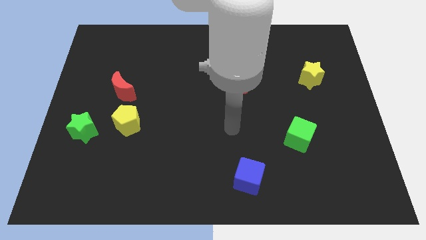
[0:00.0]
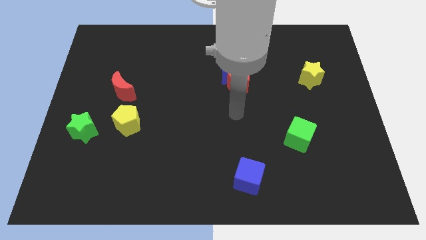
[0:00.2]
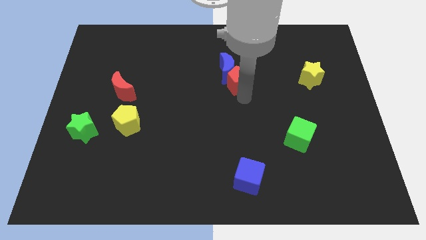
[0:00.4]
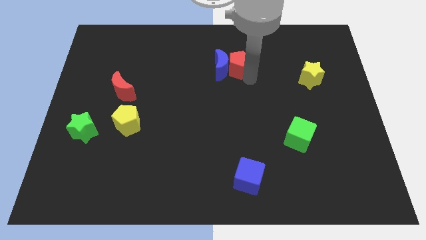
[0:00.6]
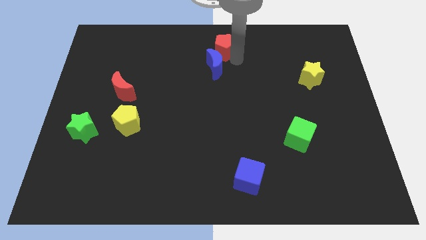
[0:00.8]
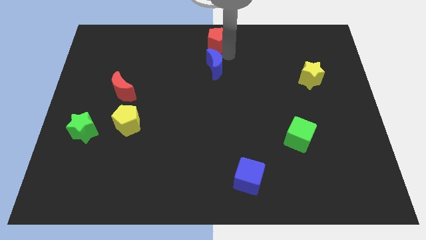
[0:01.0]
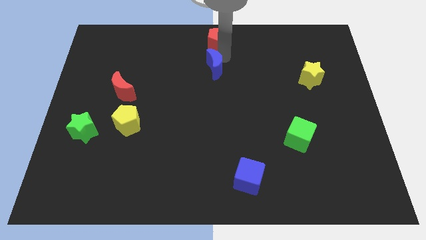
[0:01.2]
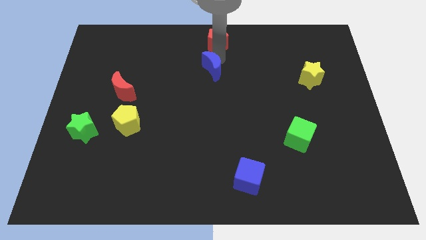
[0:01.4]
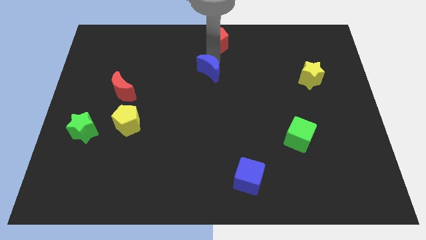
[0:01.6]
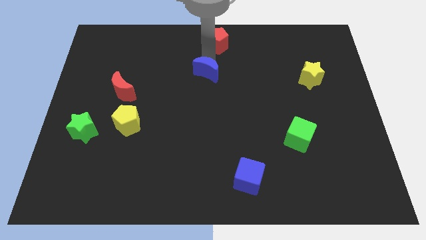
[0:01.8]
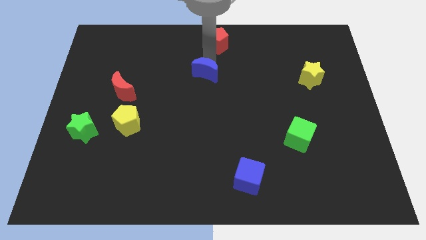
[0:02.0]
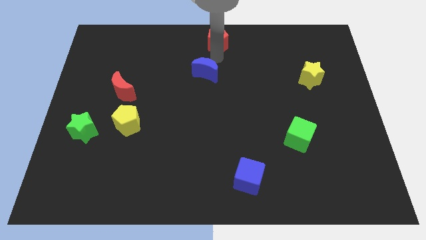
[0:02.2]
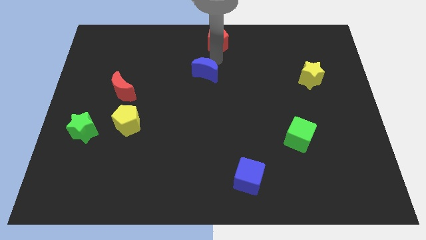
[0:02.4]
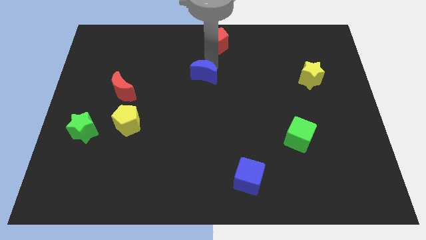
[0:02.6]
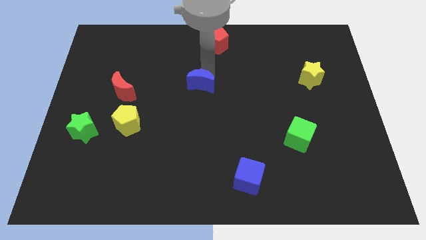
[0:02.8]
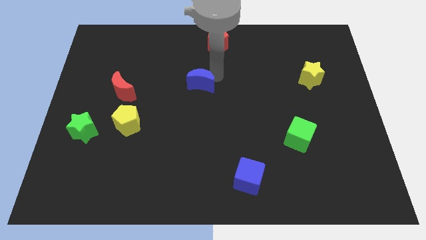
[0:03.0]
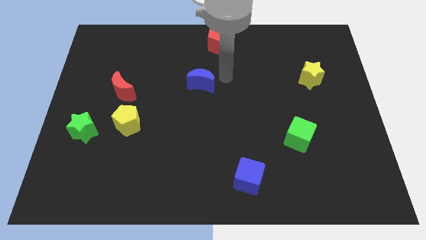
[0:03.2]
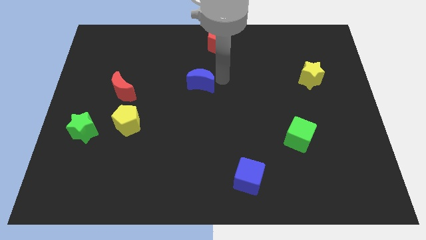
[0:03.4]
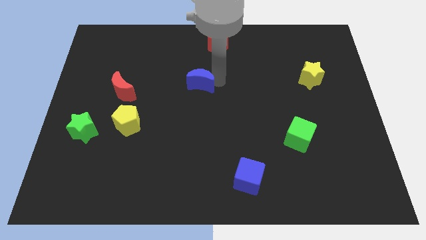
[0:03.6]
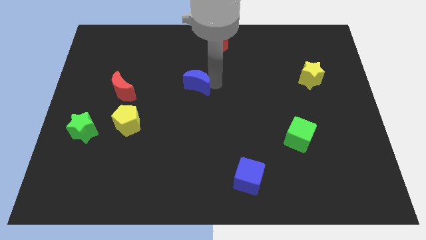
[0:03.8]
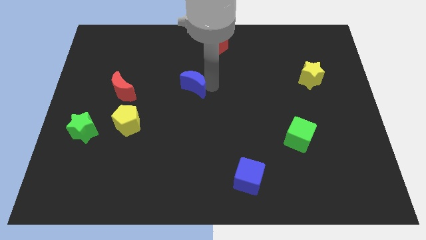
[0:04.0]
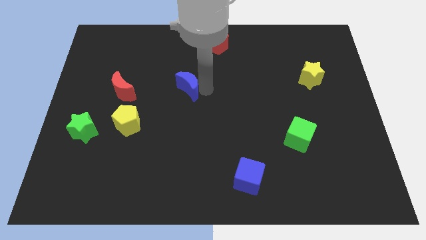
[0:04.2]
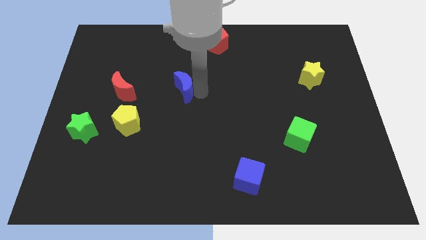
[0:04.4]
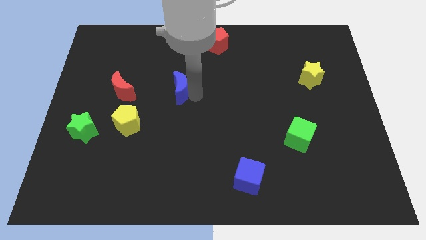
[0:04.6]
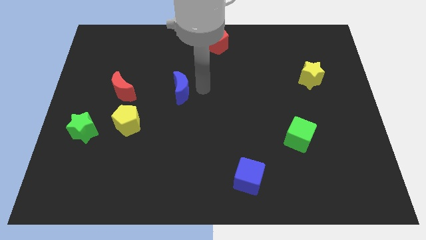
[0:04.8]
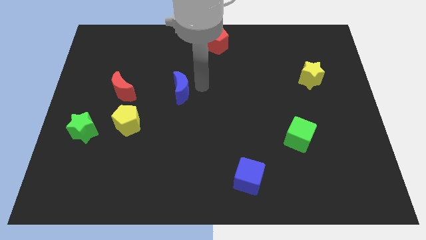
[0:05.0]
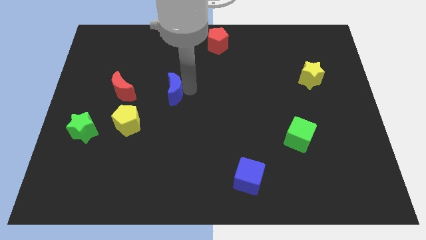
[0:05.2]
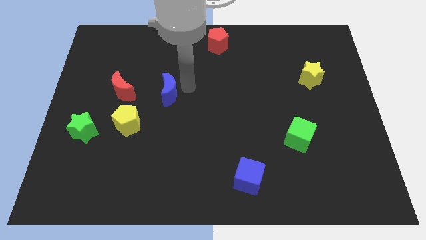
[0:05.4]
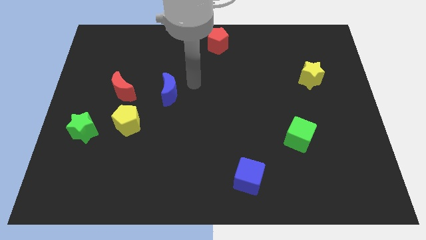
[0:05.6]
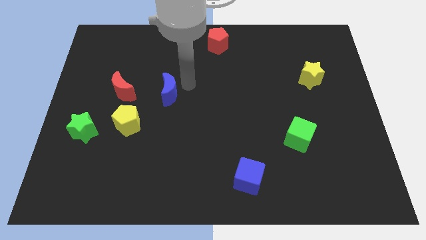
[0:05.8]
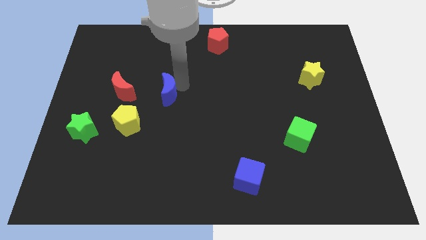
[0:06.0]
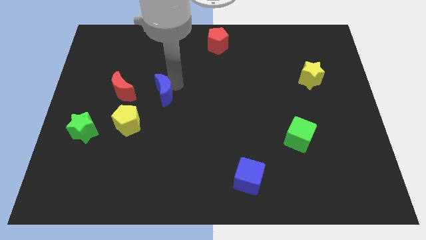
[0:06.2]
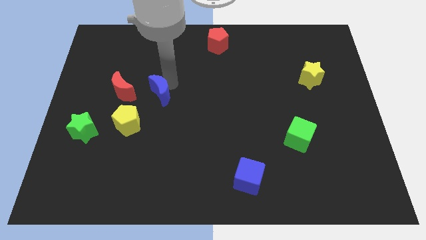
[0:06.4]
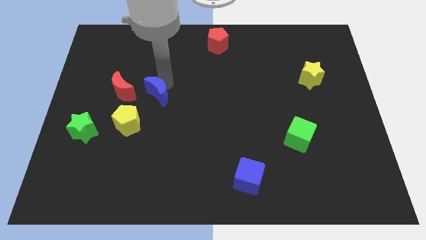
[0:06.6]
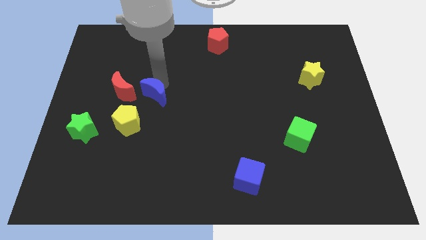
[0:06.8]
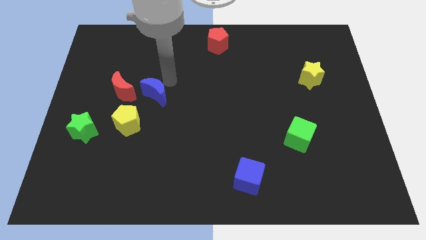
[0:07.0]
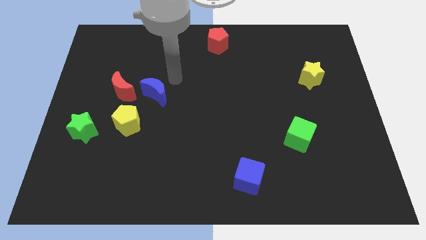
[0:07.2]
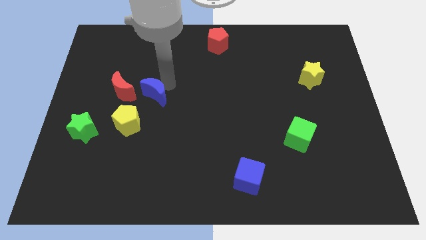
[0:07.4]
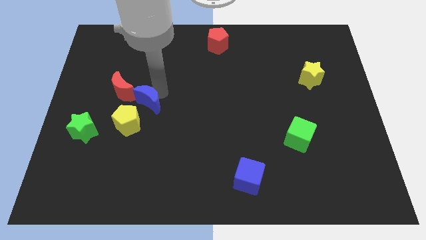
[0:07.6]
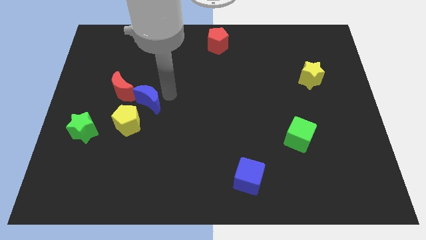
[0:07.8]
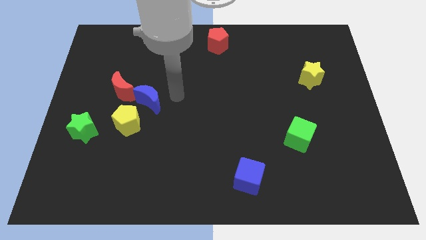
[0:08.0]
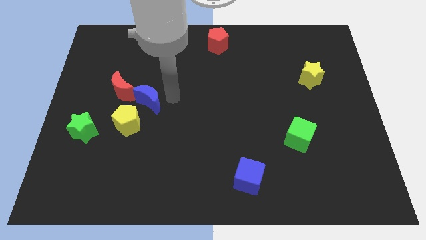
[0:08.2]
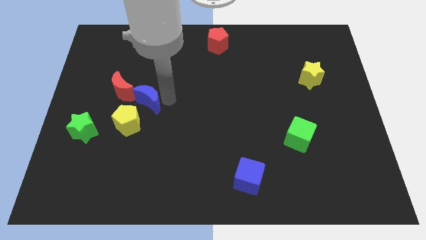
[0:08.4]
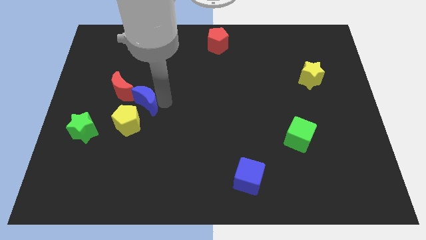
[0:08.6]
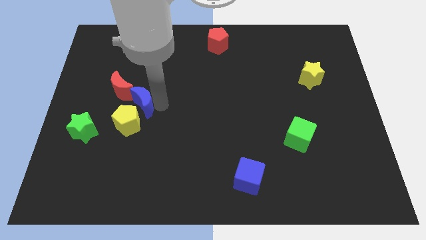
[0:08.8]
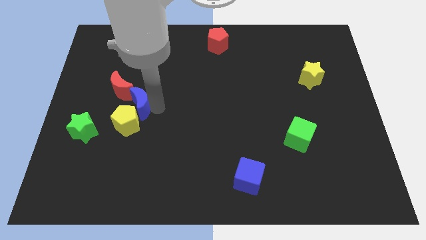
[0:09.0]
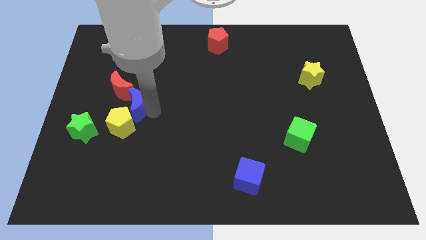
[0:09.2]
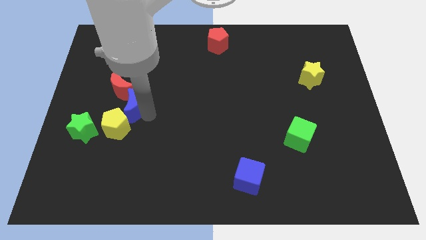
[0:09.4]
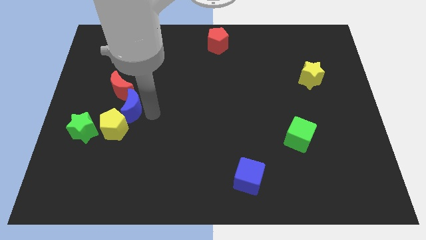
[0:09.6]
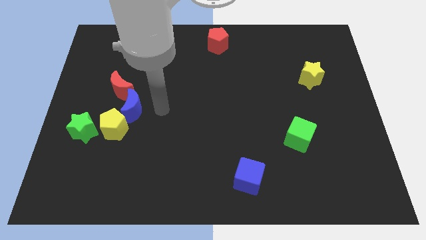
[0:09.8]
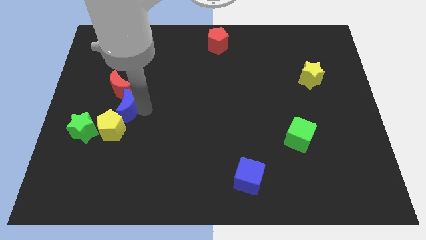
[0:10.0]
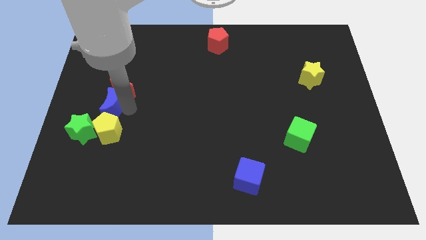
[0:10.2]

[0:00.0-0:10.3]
put the blue moon diagonally up and to the left of the yellow pentagon

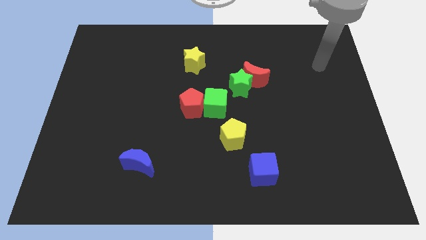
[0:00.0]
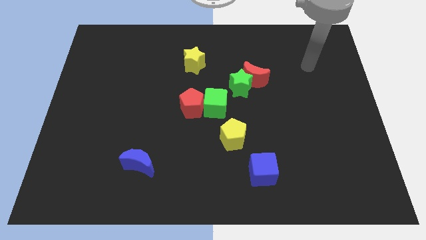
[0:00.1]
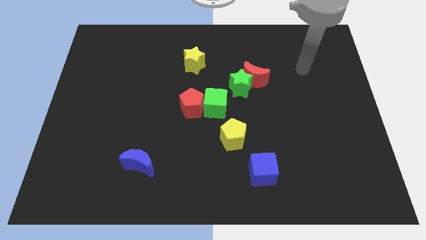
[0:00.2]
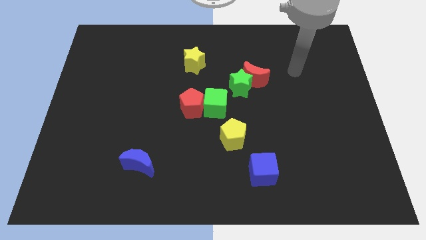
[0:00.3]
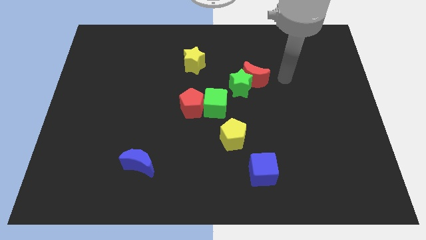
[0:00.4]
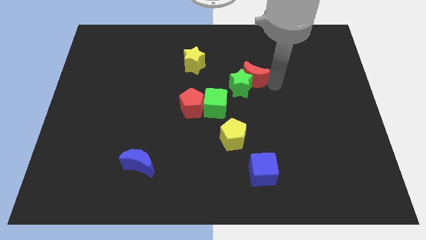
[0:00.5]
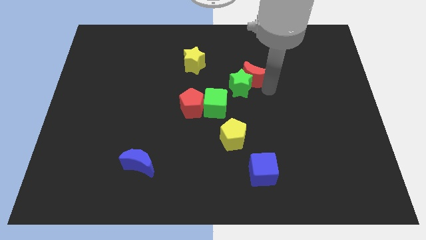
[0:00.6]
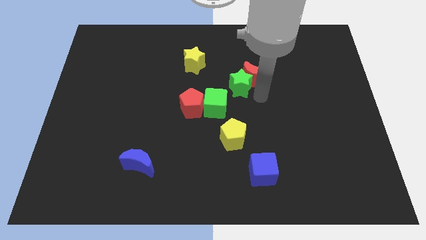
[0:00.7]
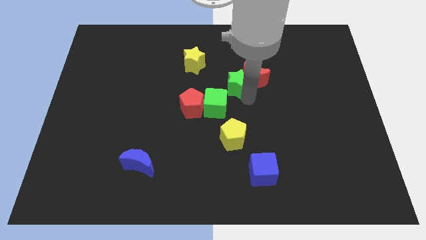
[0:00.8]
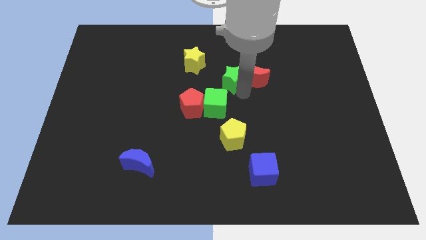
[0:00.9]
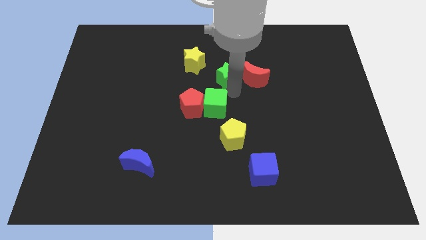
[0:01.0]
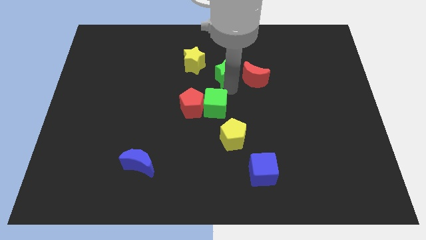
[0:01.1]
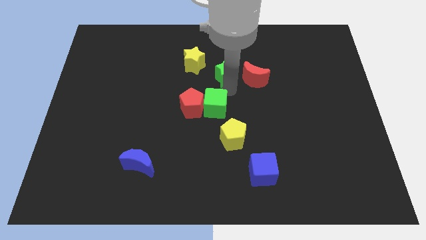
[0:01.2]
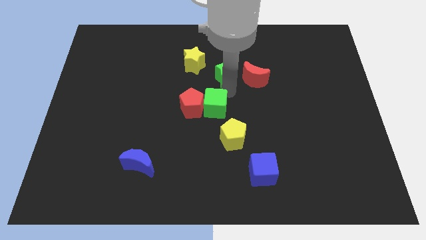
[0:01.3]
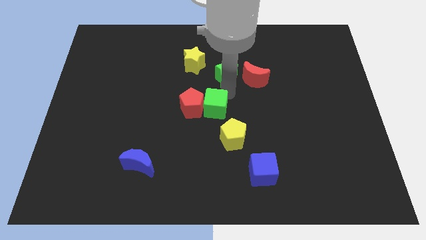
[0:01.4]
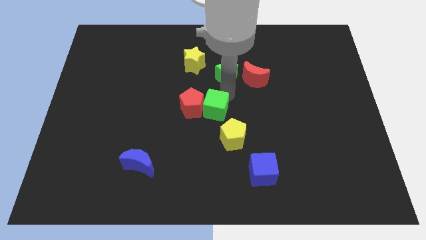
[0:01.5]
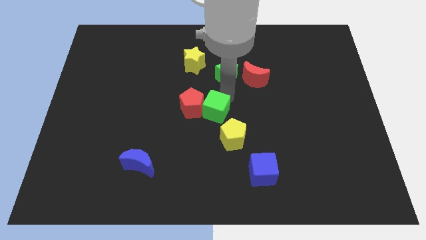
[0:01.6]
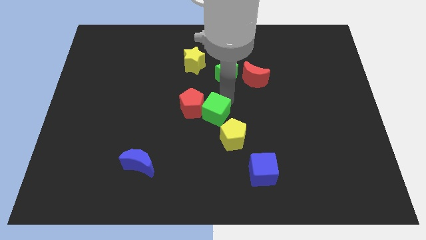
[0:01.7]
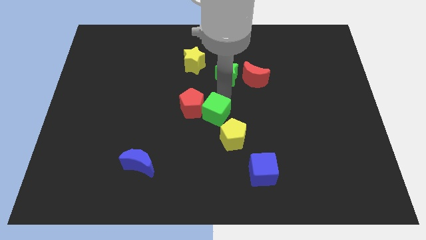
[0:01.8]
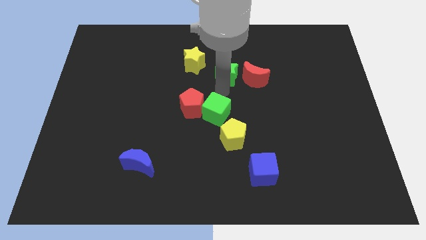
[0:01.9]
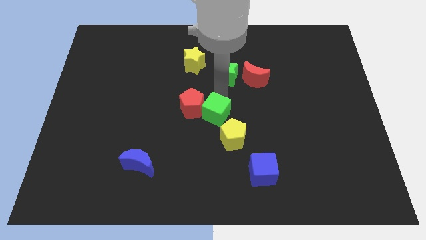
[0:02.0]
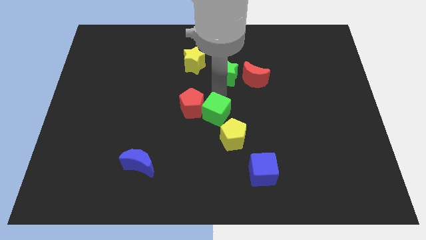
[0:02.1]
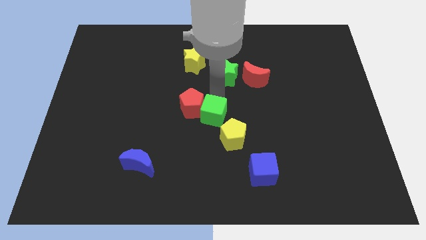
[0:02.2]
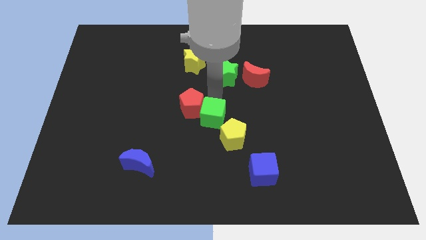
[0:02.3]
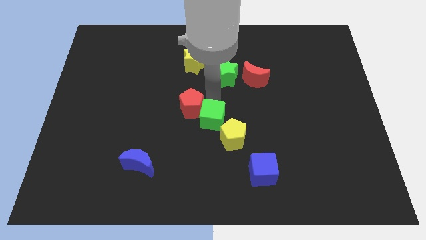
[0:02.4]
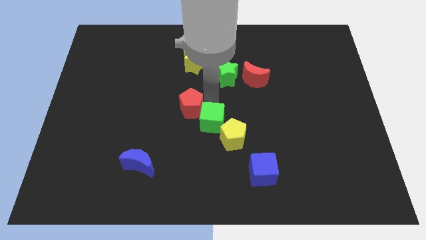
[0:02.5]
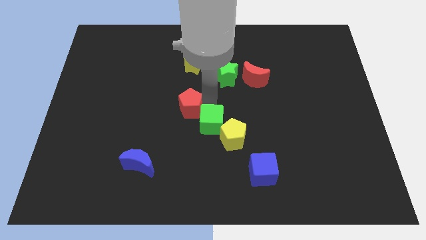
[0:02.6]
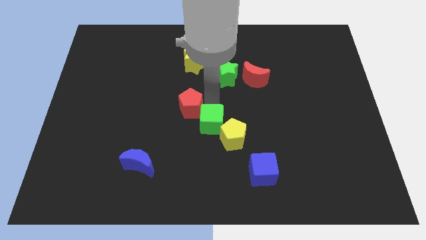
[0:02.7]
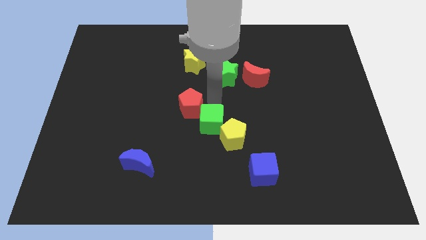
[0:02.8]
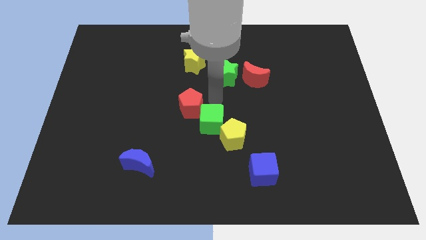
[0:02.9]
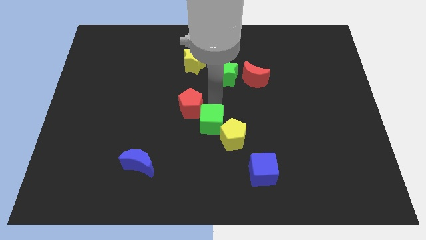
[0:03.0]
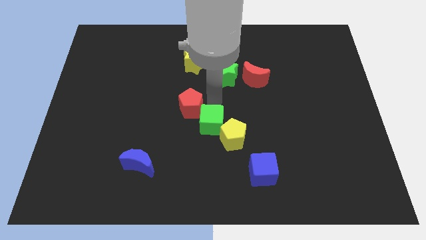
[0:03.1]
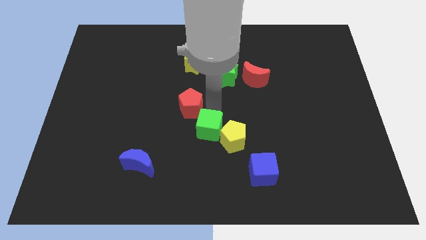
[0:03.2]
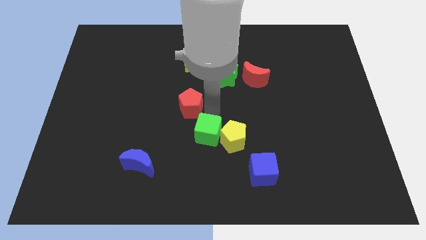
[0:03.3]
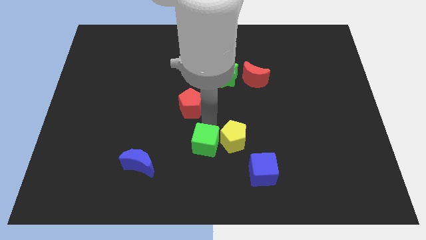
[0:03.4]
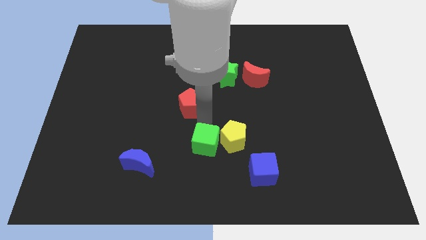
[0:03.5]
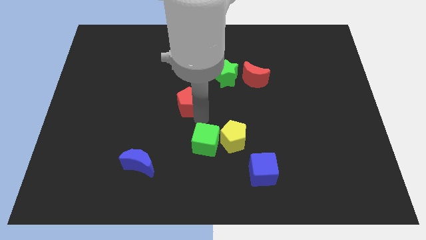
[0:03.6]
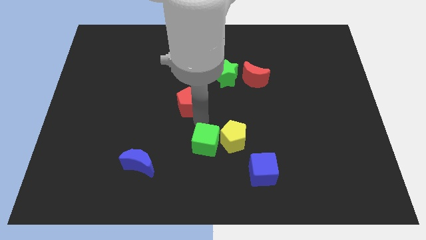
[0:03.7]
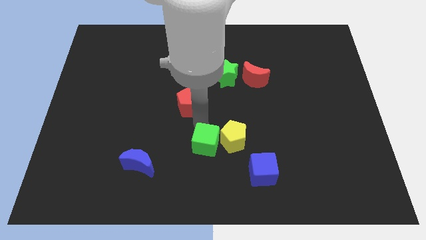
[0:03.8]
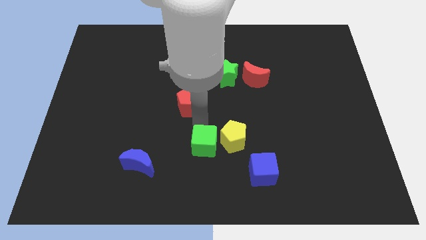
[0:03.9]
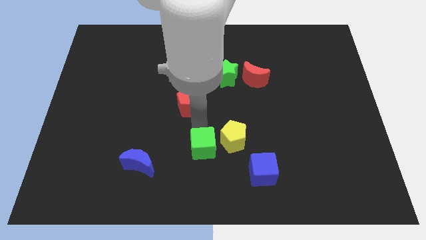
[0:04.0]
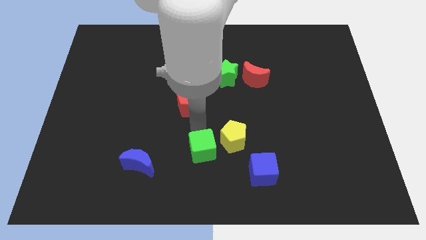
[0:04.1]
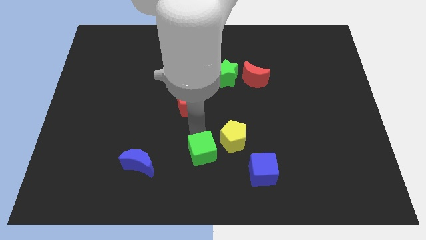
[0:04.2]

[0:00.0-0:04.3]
slide the green cube just left of the blue cube
